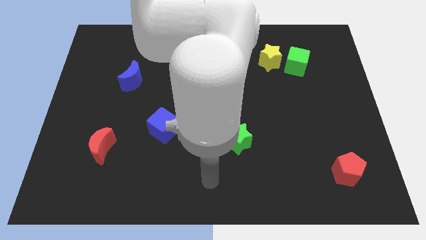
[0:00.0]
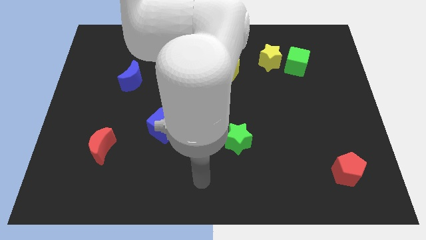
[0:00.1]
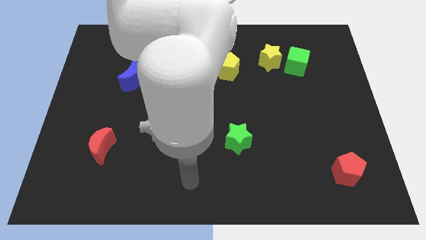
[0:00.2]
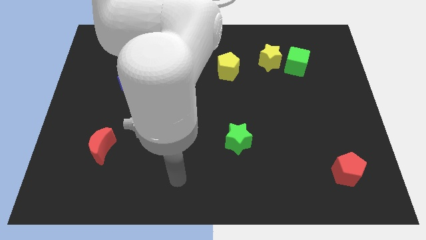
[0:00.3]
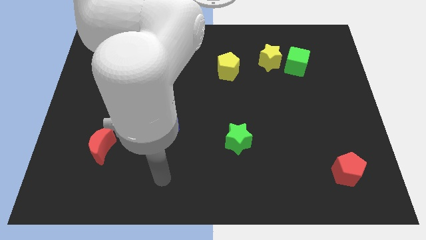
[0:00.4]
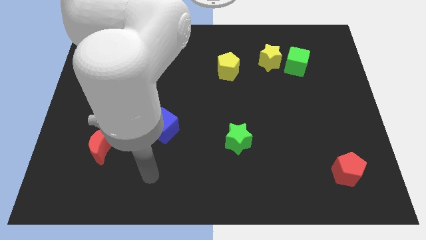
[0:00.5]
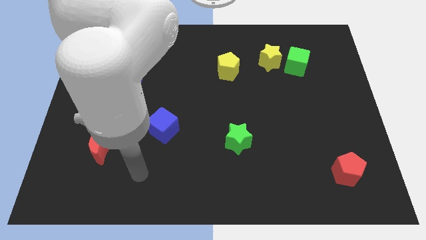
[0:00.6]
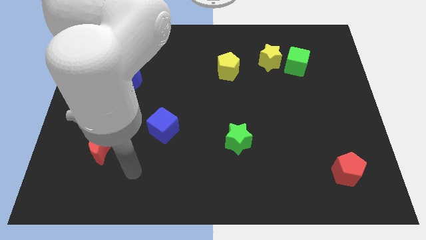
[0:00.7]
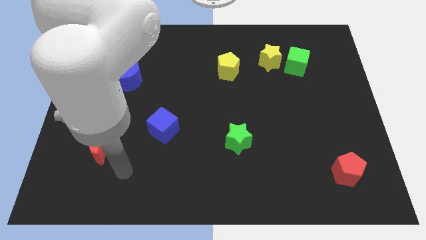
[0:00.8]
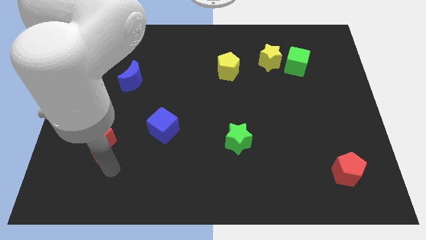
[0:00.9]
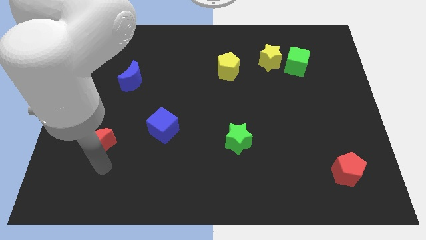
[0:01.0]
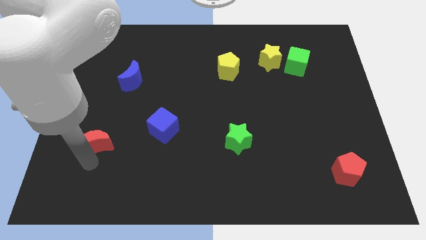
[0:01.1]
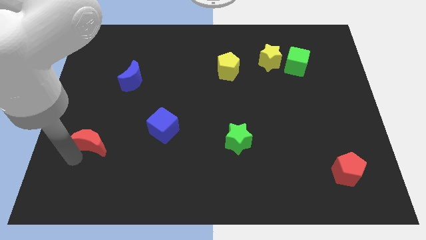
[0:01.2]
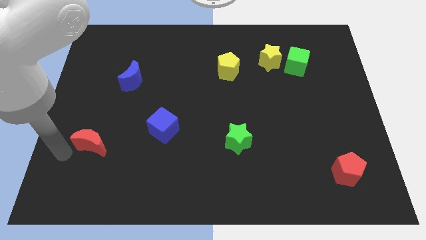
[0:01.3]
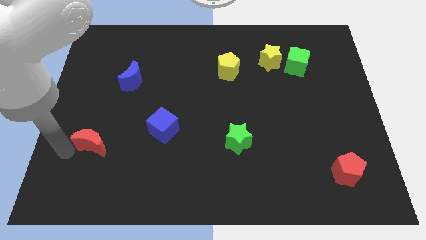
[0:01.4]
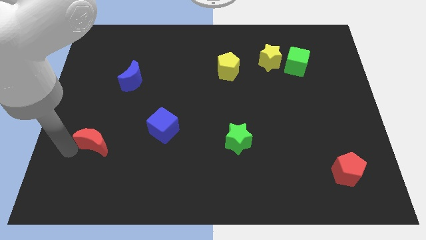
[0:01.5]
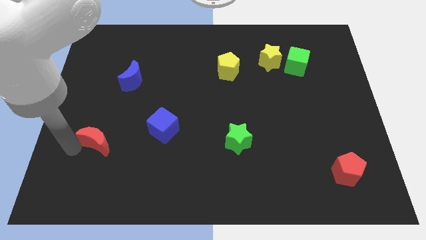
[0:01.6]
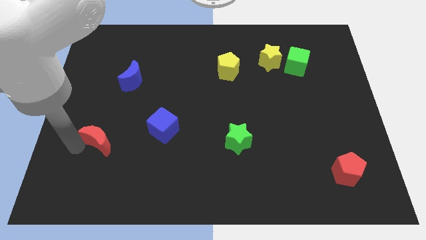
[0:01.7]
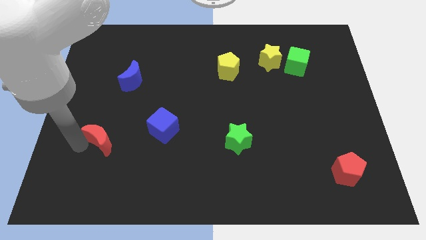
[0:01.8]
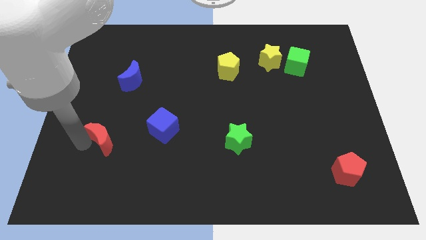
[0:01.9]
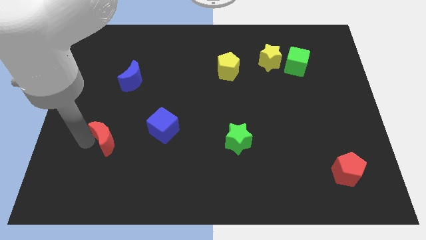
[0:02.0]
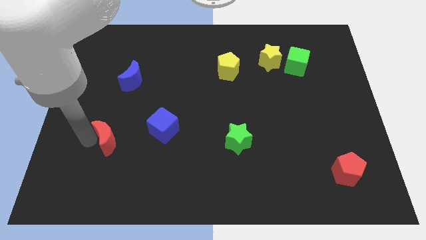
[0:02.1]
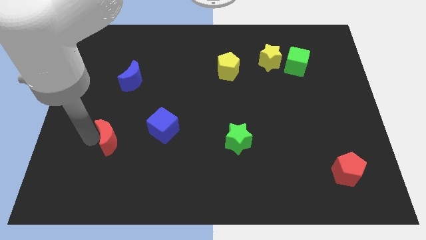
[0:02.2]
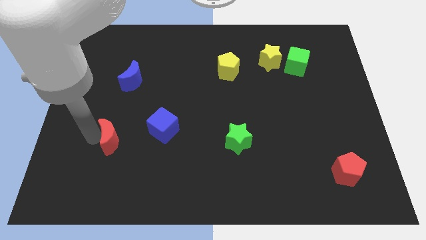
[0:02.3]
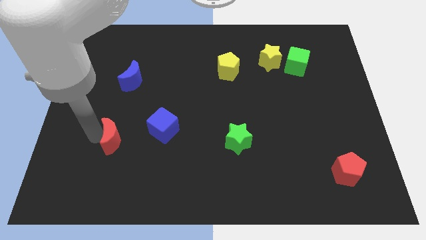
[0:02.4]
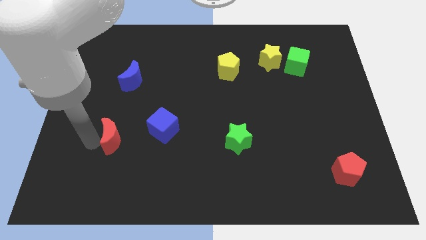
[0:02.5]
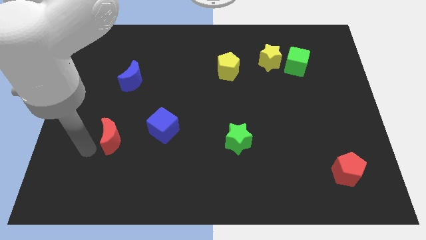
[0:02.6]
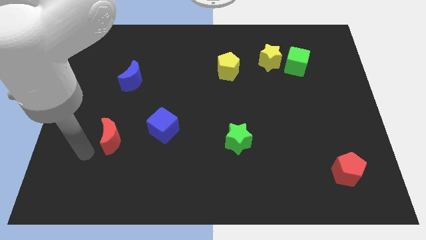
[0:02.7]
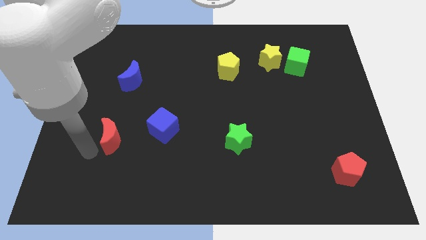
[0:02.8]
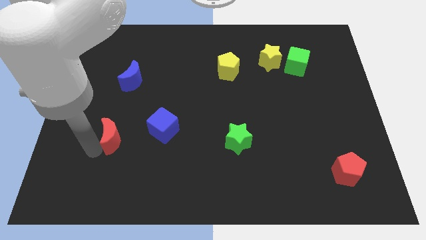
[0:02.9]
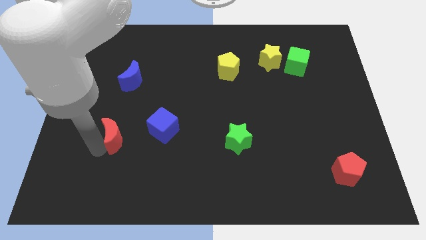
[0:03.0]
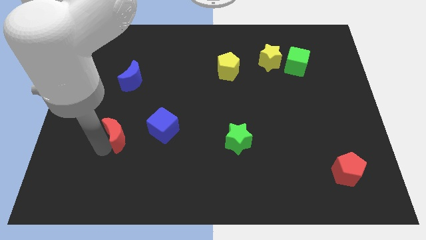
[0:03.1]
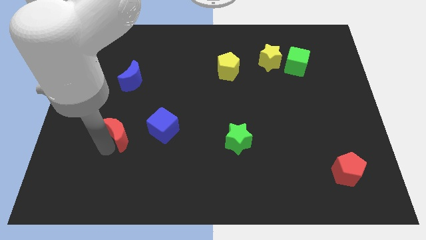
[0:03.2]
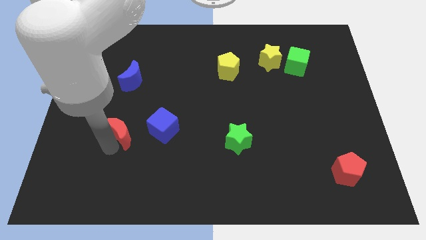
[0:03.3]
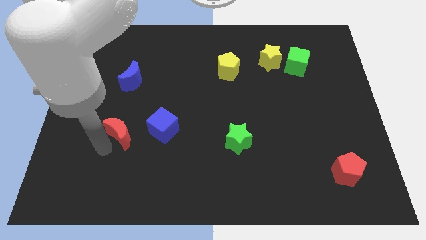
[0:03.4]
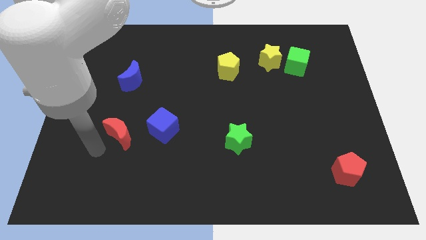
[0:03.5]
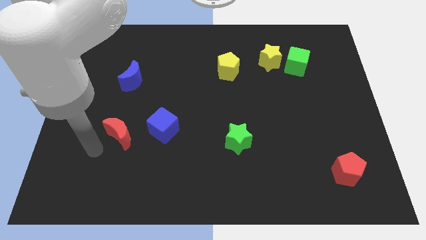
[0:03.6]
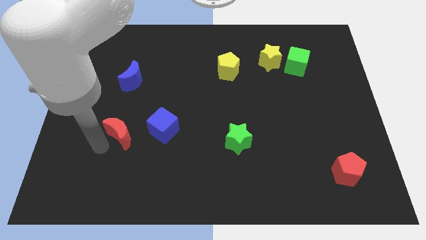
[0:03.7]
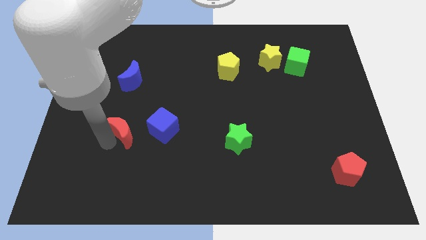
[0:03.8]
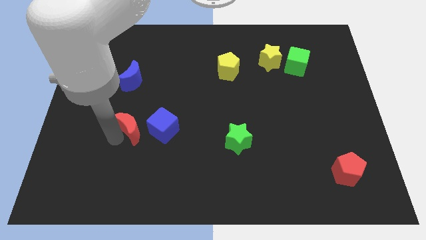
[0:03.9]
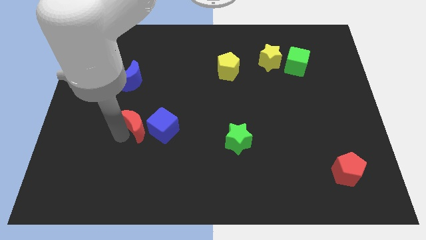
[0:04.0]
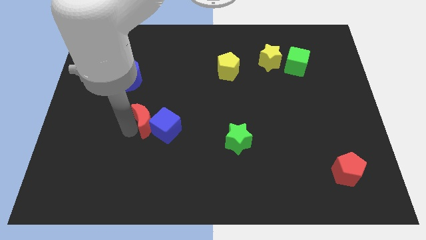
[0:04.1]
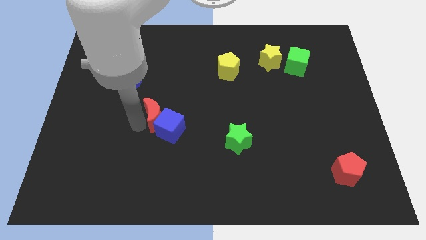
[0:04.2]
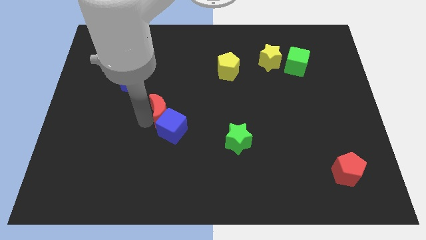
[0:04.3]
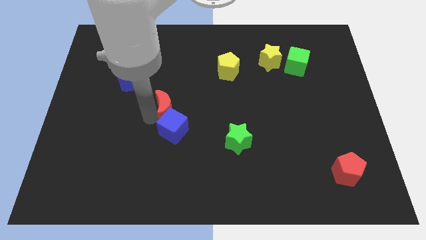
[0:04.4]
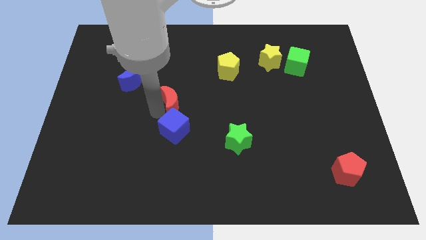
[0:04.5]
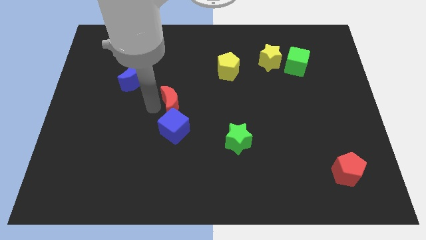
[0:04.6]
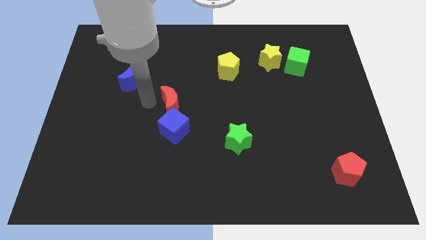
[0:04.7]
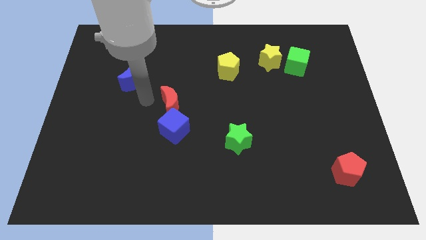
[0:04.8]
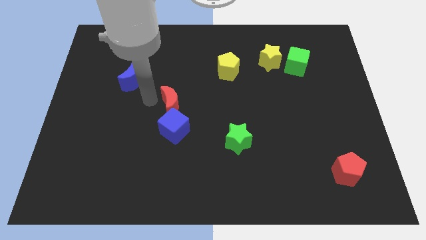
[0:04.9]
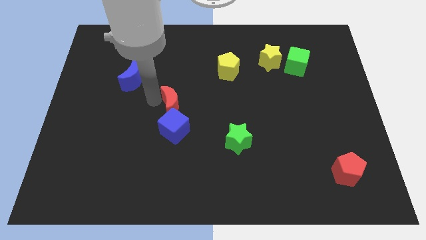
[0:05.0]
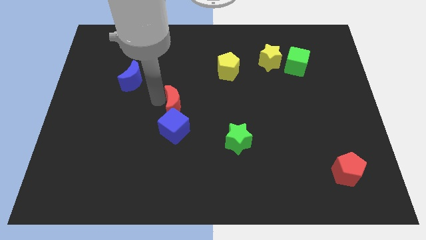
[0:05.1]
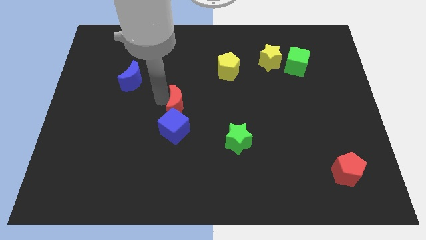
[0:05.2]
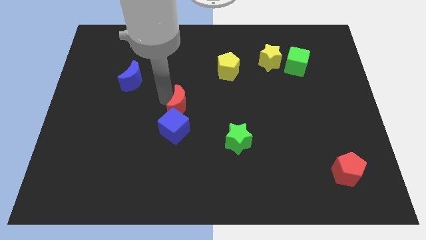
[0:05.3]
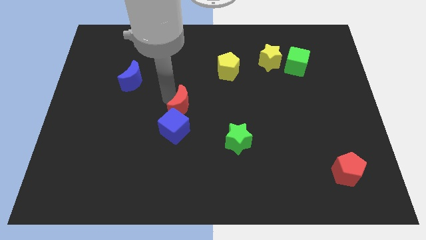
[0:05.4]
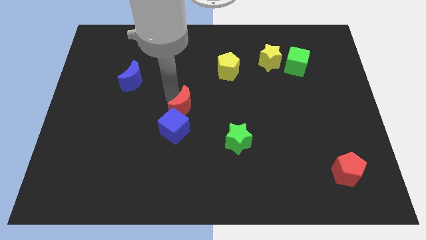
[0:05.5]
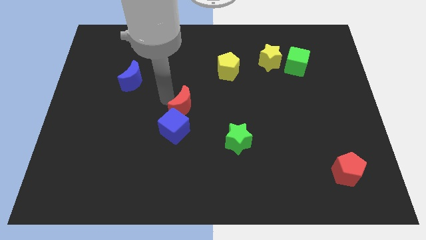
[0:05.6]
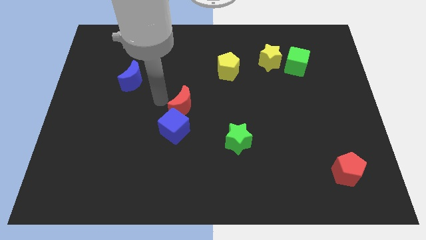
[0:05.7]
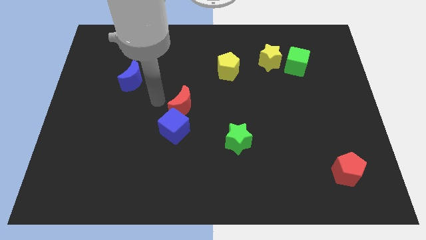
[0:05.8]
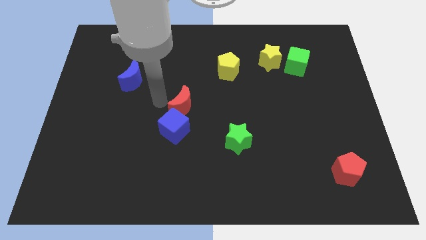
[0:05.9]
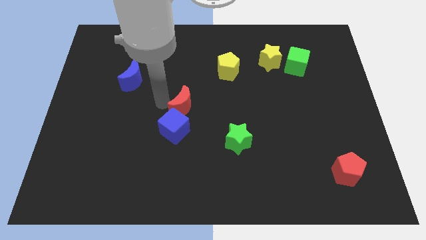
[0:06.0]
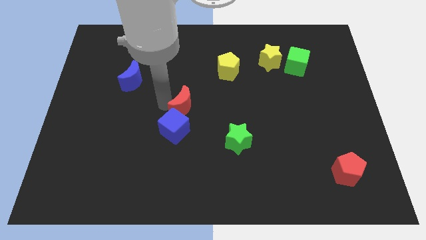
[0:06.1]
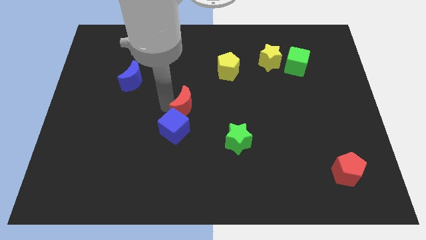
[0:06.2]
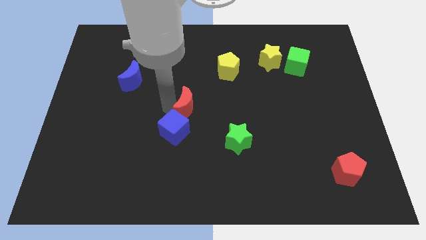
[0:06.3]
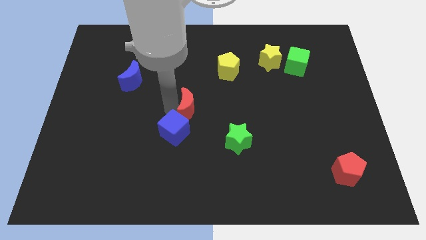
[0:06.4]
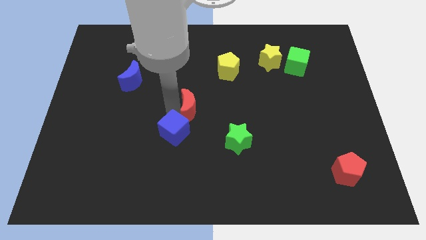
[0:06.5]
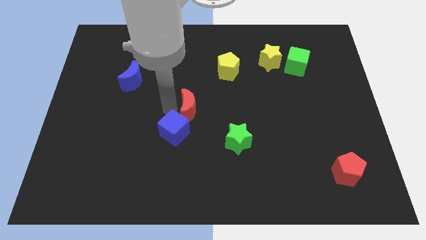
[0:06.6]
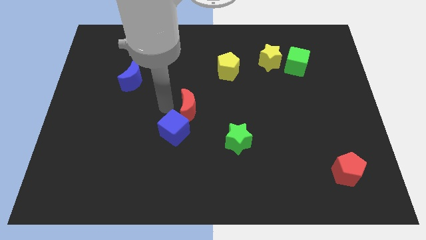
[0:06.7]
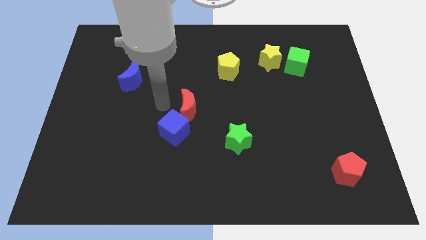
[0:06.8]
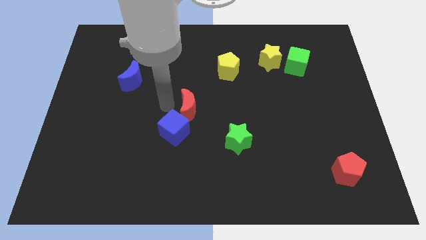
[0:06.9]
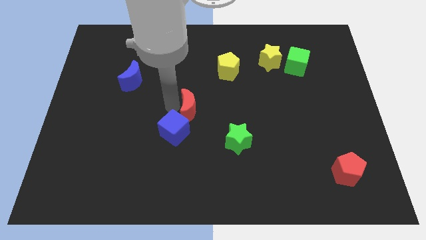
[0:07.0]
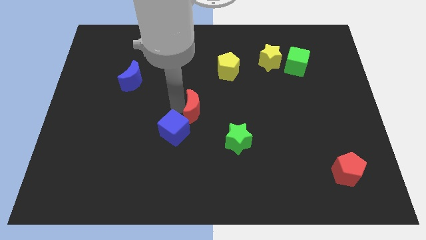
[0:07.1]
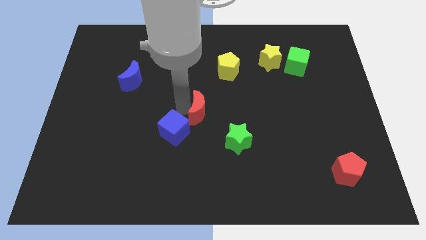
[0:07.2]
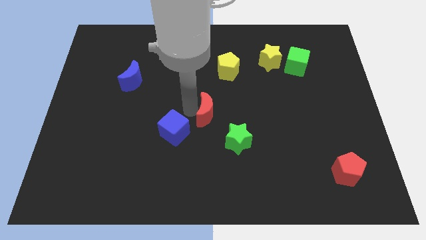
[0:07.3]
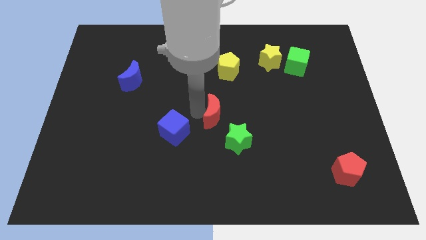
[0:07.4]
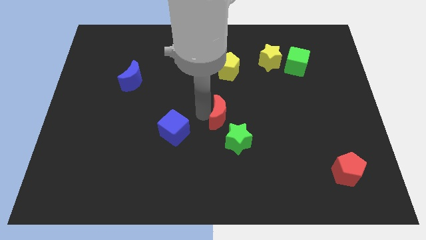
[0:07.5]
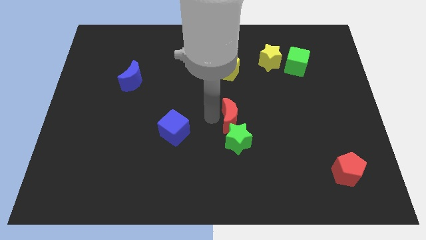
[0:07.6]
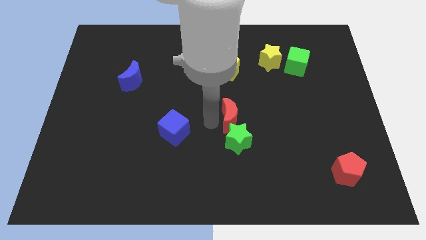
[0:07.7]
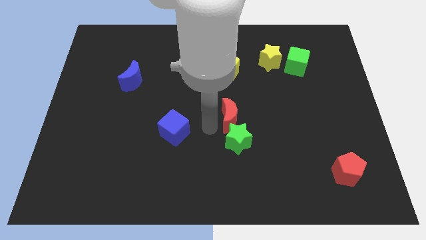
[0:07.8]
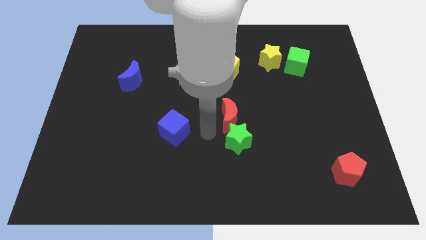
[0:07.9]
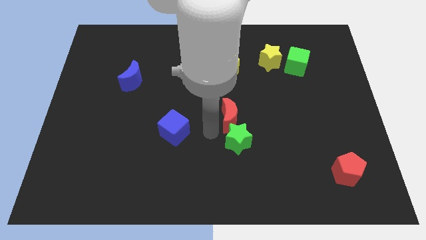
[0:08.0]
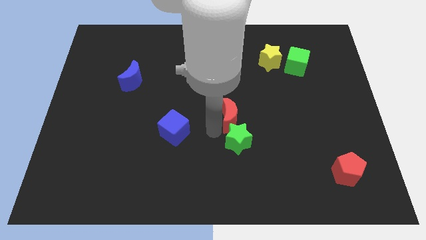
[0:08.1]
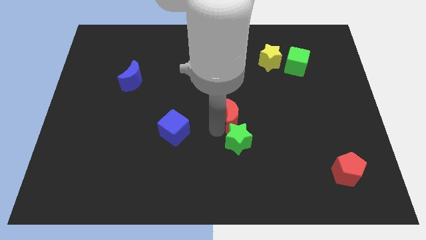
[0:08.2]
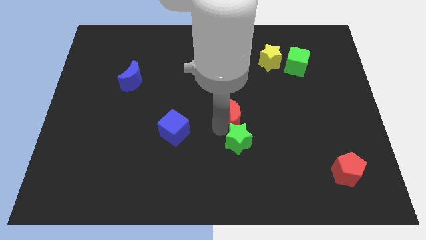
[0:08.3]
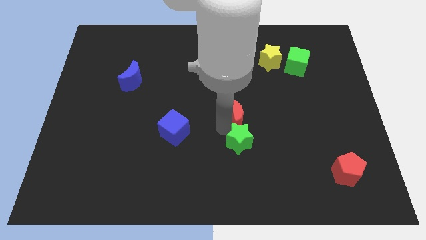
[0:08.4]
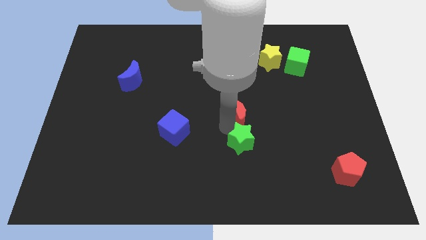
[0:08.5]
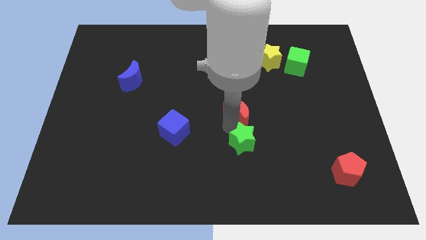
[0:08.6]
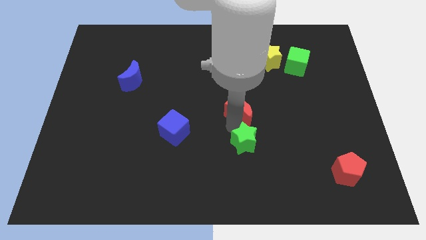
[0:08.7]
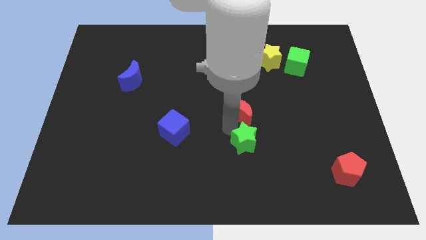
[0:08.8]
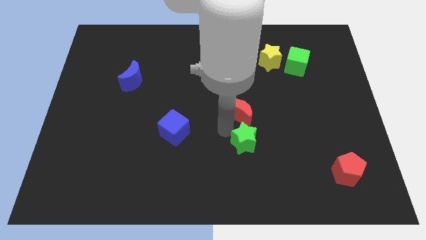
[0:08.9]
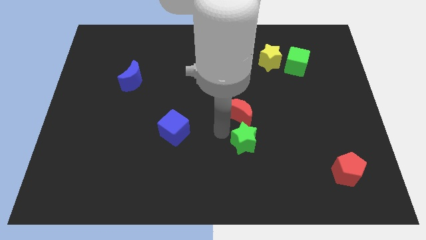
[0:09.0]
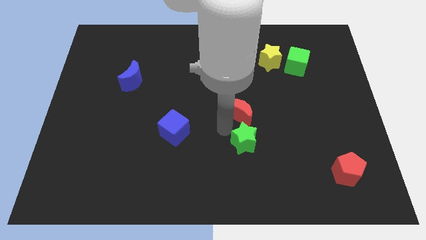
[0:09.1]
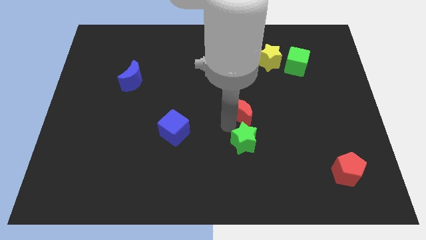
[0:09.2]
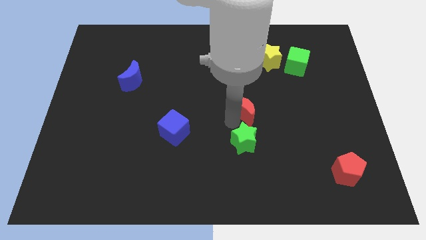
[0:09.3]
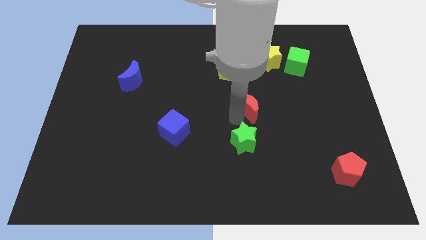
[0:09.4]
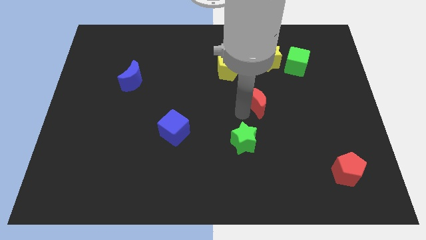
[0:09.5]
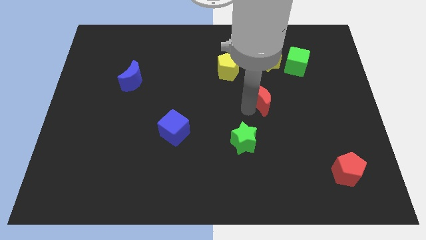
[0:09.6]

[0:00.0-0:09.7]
slide the red moon to the bottom of the yellow star
